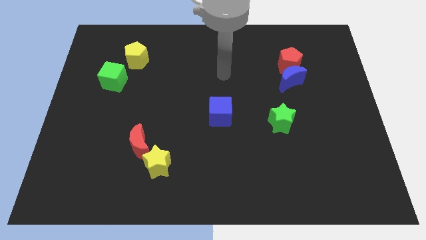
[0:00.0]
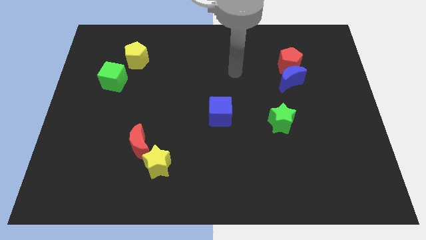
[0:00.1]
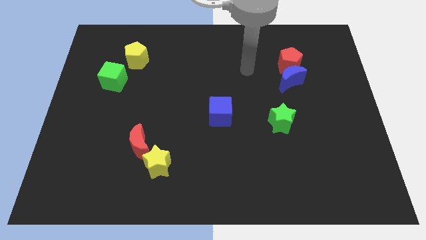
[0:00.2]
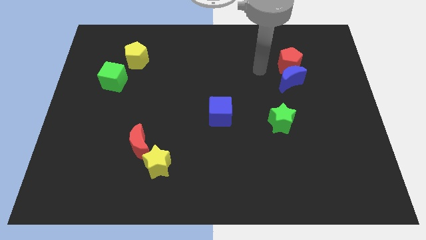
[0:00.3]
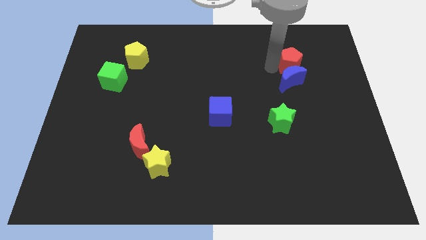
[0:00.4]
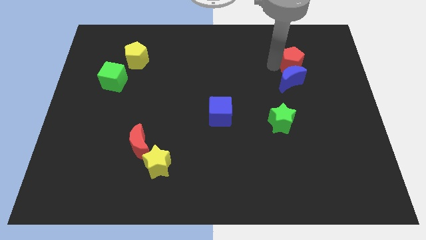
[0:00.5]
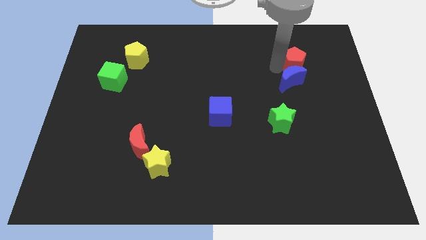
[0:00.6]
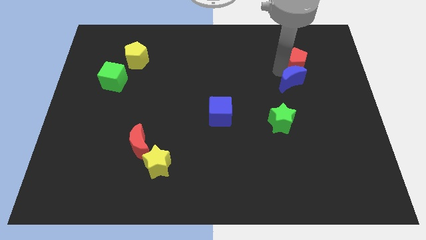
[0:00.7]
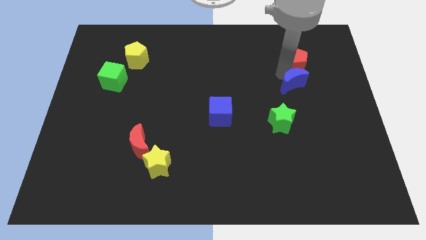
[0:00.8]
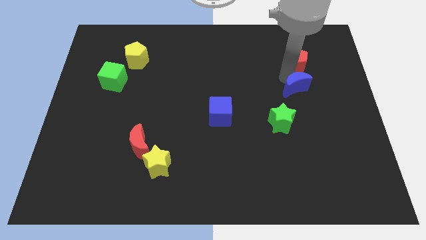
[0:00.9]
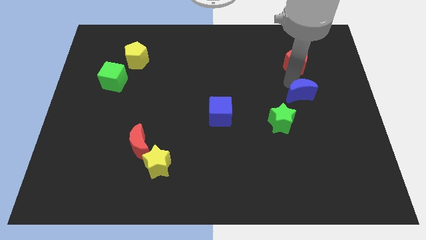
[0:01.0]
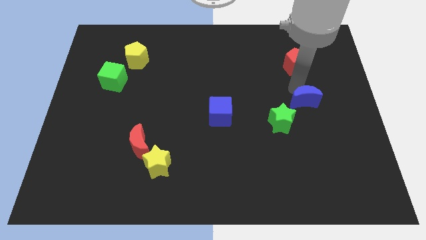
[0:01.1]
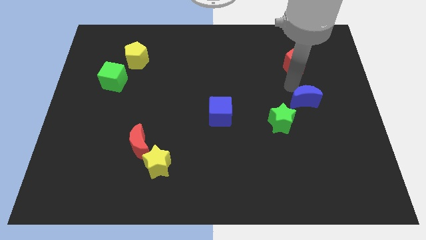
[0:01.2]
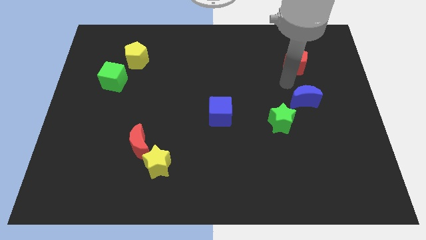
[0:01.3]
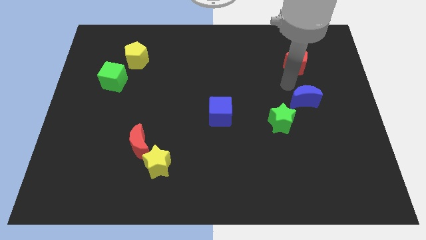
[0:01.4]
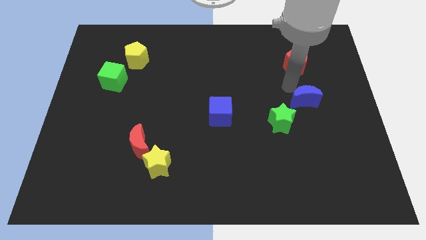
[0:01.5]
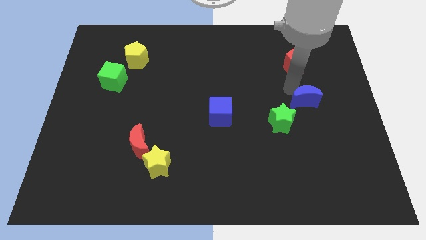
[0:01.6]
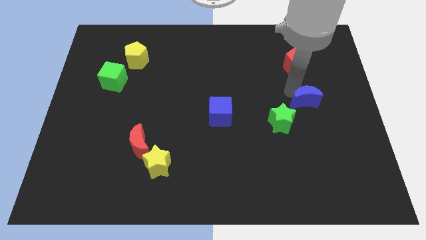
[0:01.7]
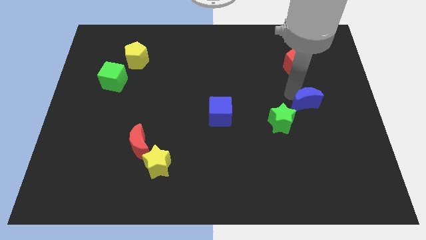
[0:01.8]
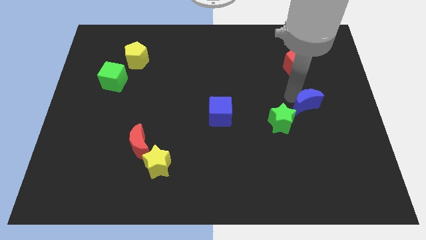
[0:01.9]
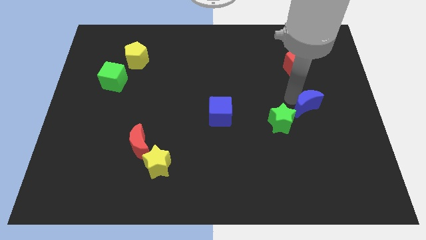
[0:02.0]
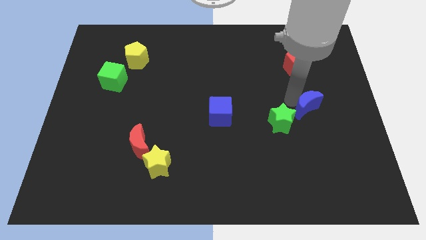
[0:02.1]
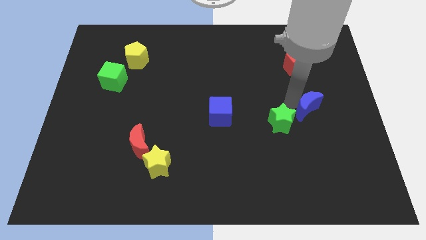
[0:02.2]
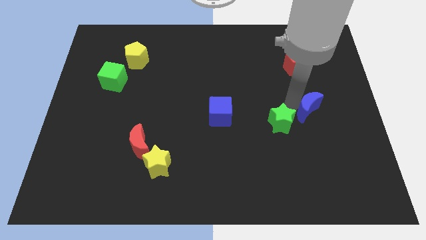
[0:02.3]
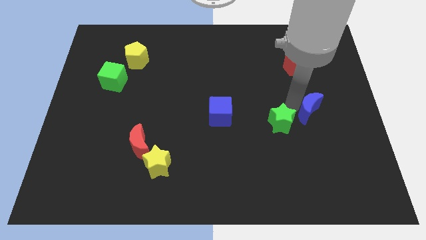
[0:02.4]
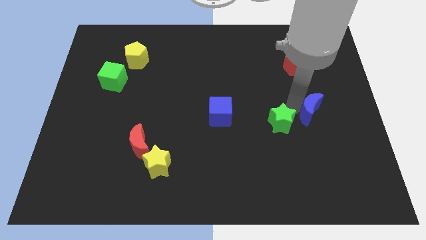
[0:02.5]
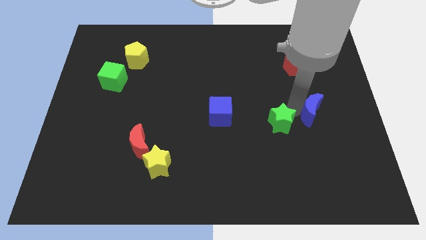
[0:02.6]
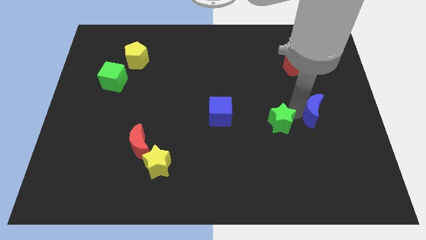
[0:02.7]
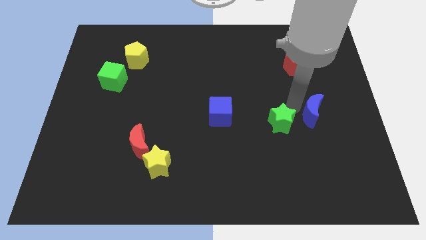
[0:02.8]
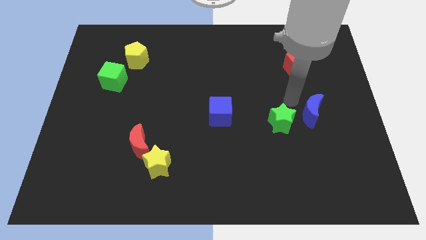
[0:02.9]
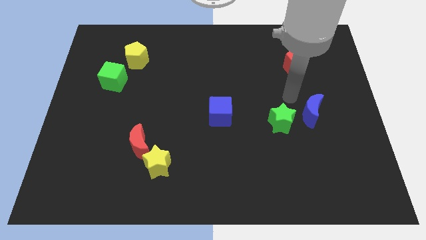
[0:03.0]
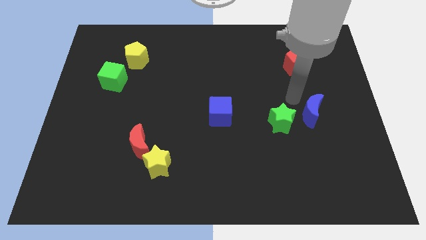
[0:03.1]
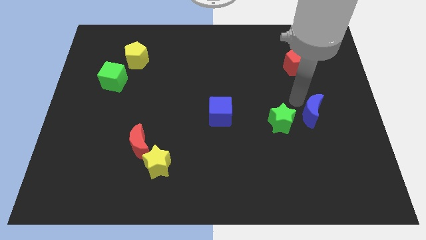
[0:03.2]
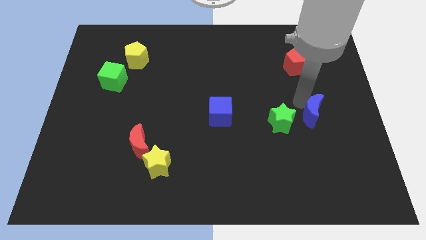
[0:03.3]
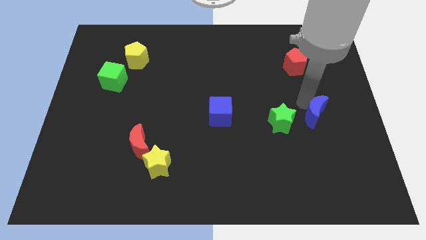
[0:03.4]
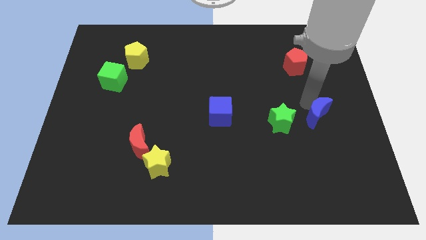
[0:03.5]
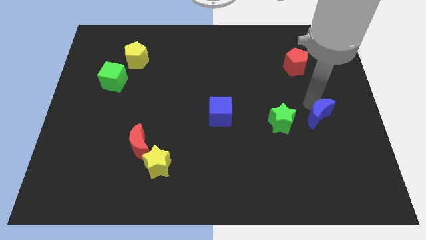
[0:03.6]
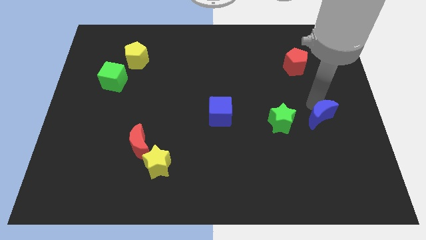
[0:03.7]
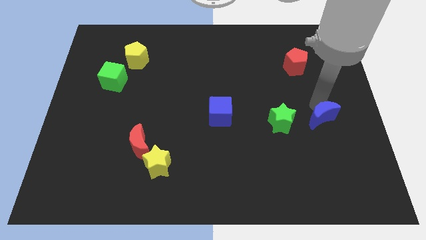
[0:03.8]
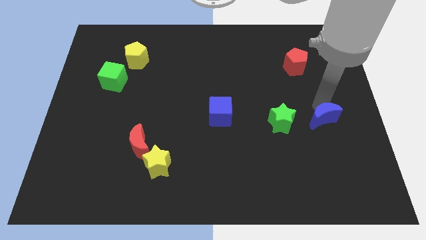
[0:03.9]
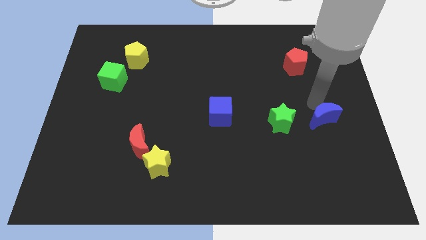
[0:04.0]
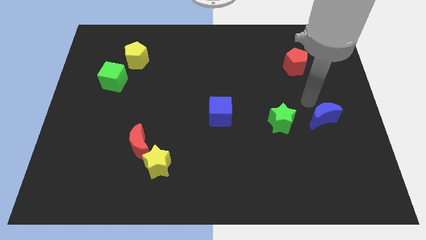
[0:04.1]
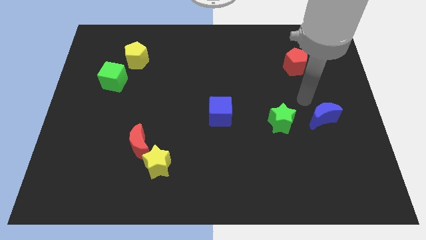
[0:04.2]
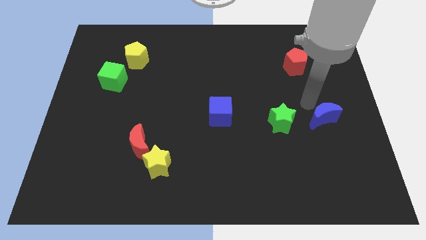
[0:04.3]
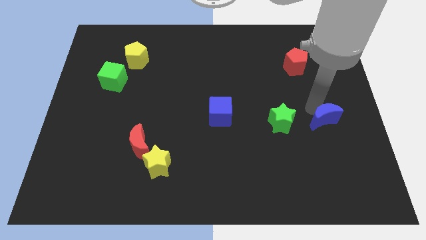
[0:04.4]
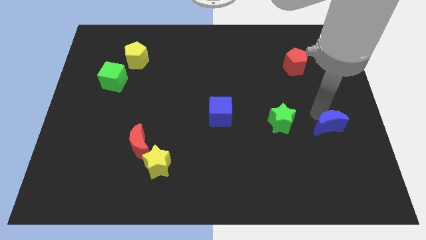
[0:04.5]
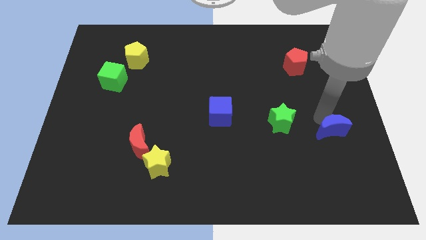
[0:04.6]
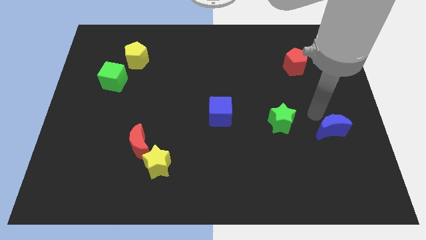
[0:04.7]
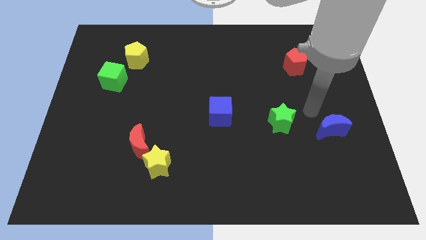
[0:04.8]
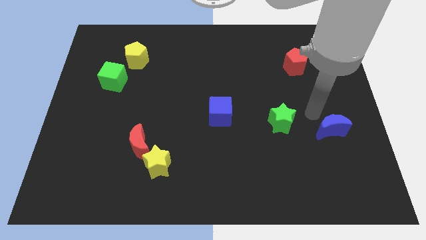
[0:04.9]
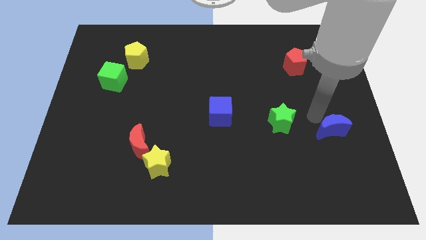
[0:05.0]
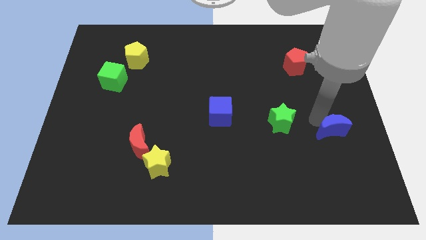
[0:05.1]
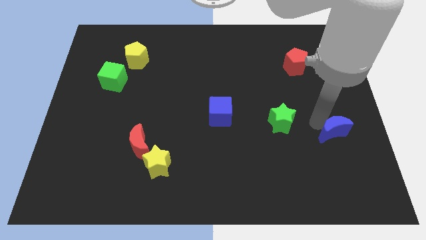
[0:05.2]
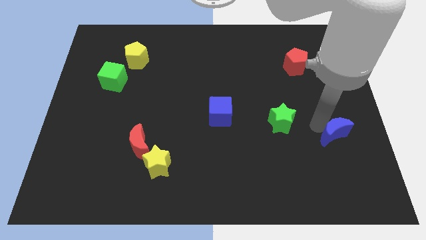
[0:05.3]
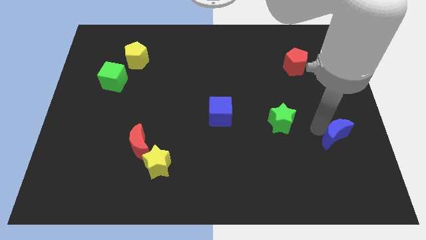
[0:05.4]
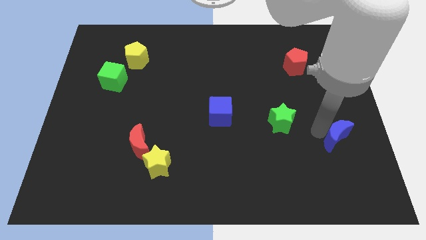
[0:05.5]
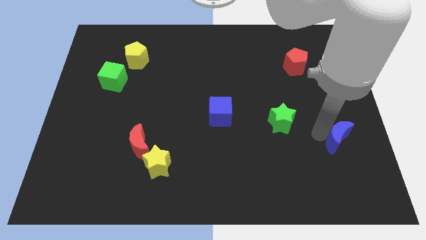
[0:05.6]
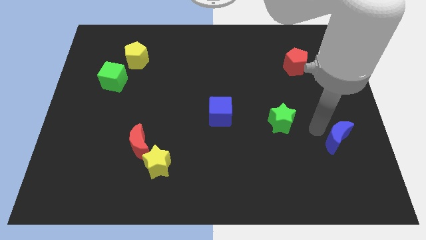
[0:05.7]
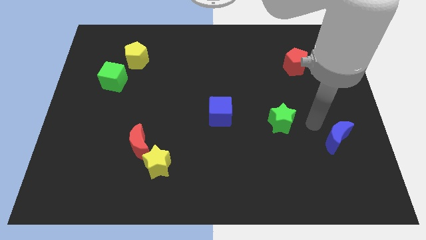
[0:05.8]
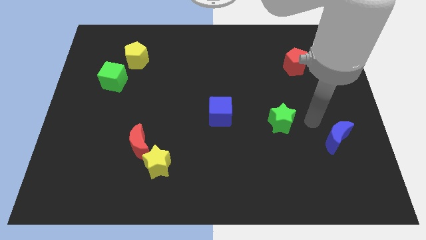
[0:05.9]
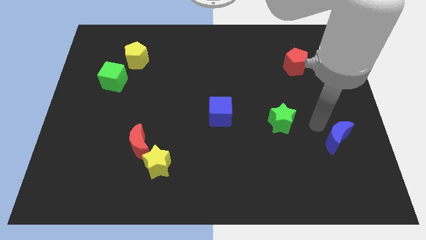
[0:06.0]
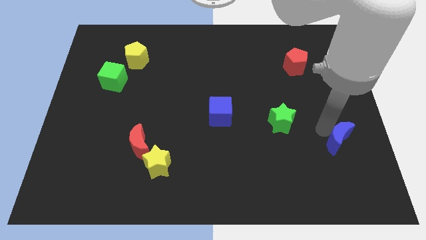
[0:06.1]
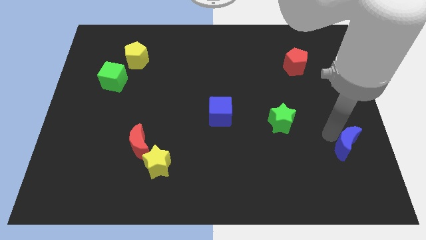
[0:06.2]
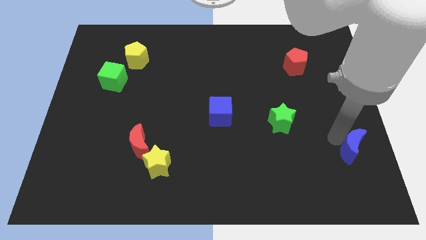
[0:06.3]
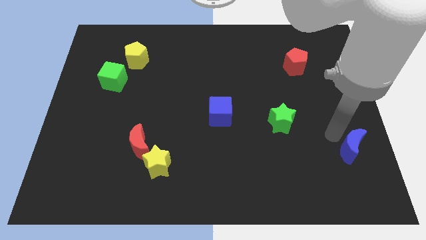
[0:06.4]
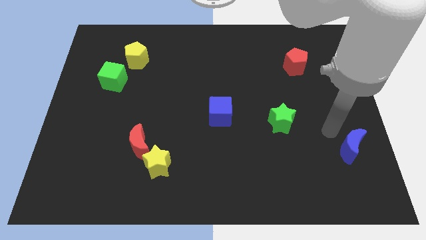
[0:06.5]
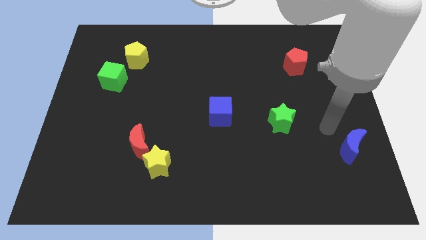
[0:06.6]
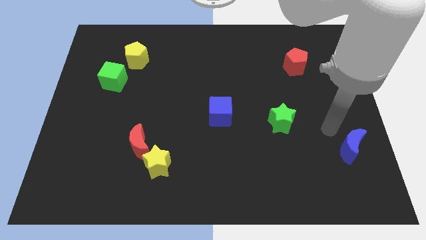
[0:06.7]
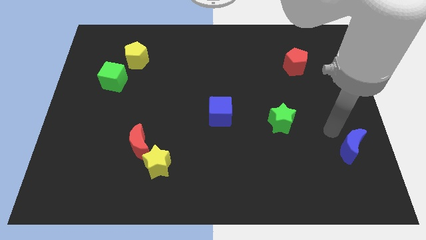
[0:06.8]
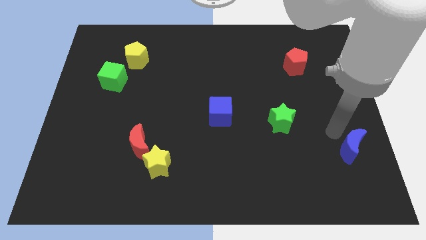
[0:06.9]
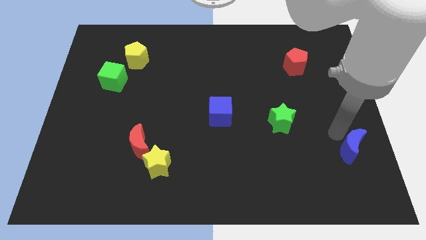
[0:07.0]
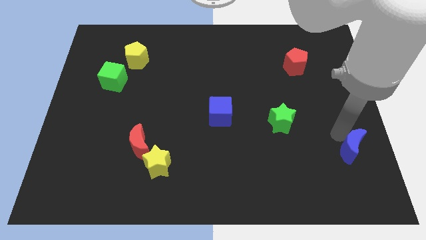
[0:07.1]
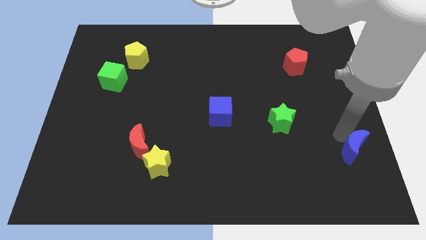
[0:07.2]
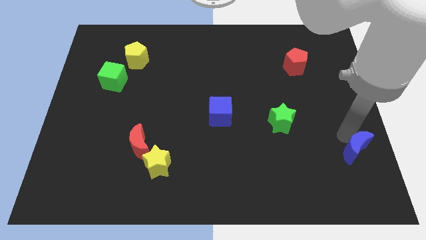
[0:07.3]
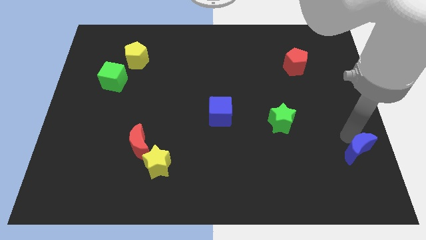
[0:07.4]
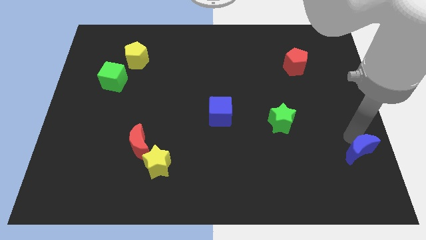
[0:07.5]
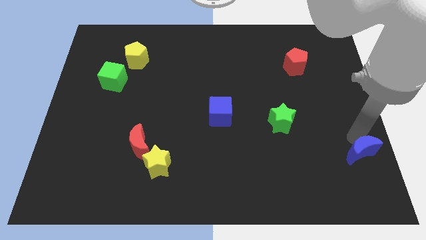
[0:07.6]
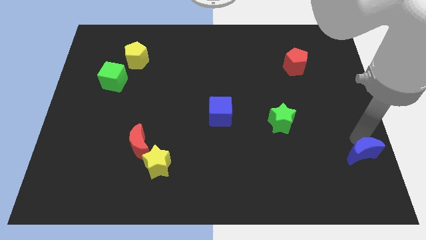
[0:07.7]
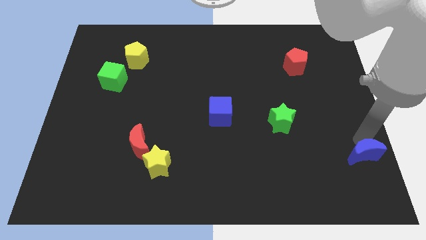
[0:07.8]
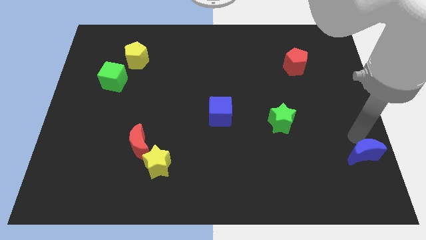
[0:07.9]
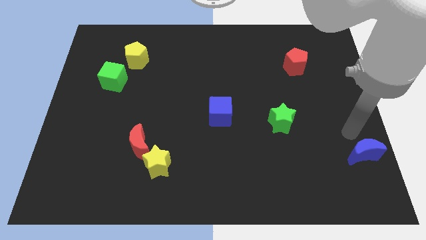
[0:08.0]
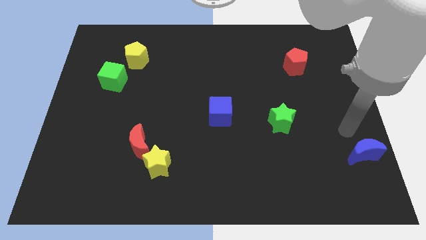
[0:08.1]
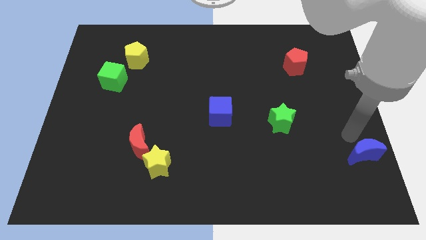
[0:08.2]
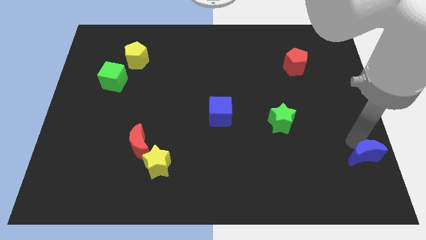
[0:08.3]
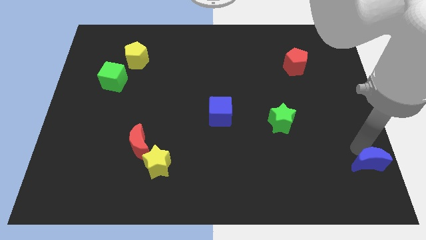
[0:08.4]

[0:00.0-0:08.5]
move the blue moon to the lower right corner
